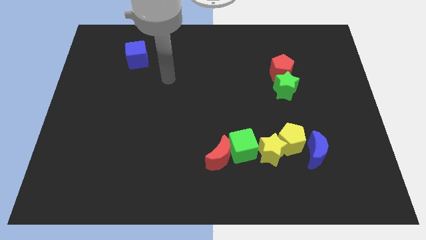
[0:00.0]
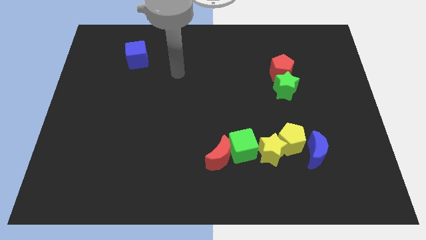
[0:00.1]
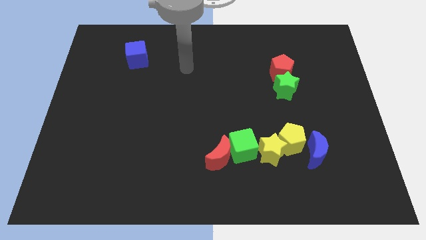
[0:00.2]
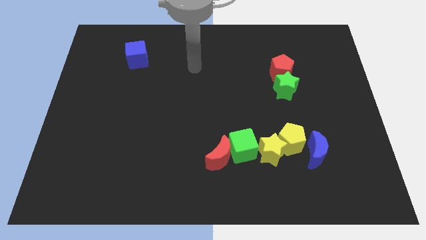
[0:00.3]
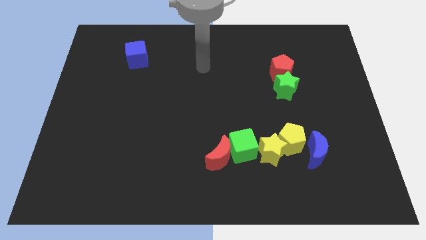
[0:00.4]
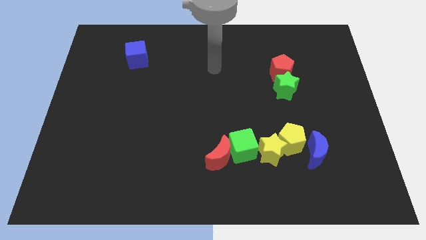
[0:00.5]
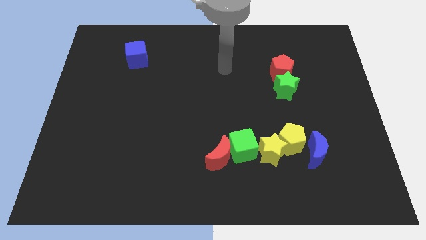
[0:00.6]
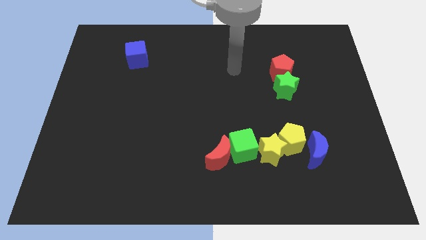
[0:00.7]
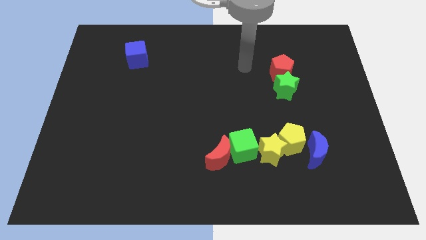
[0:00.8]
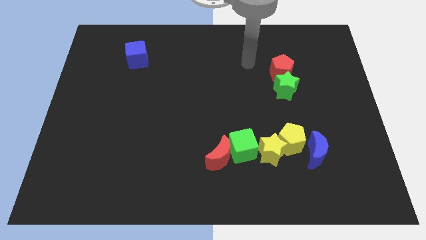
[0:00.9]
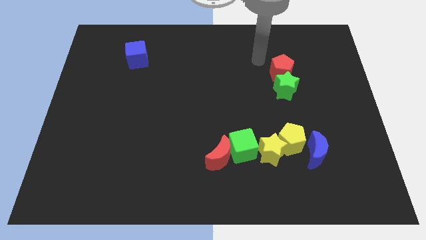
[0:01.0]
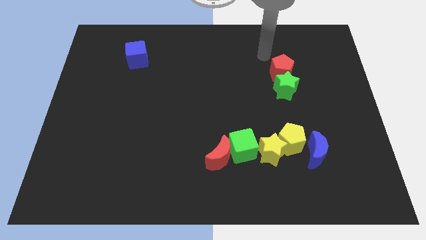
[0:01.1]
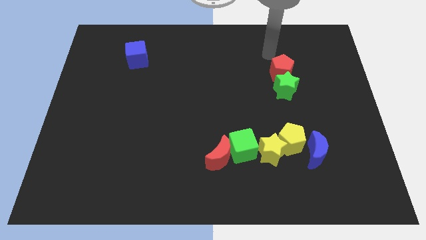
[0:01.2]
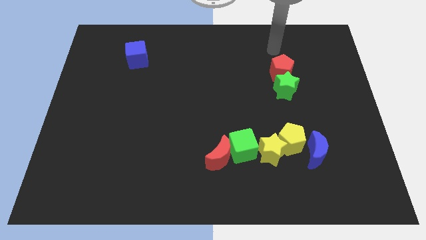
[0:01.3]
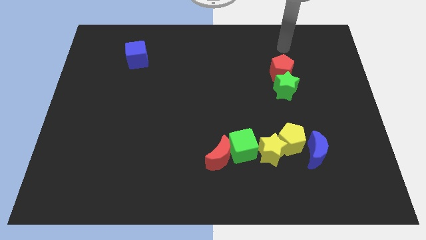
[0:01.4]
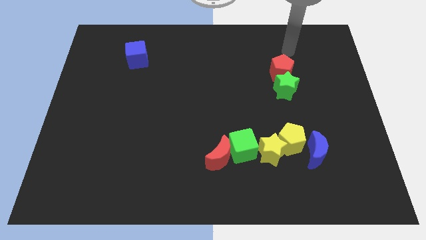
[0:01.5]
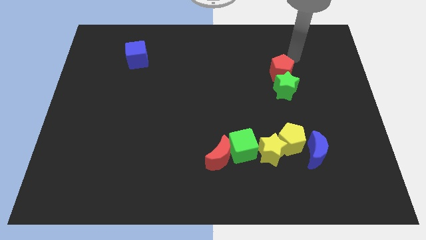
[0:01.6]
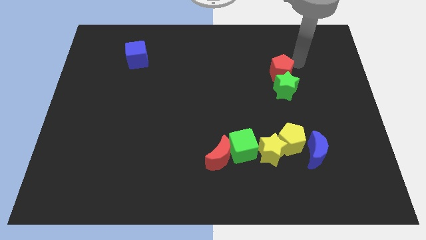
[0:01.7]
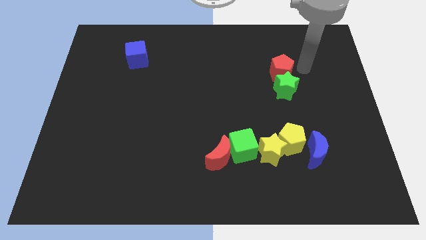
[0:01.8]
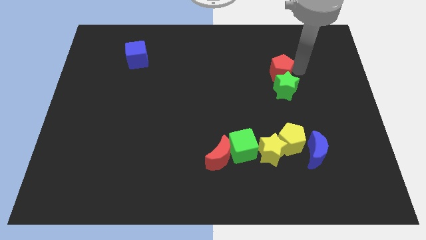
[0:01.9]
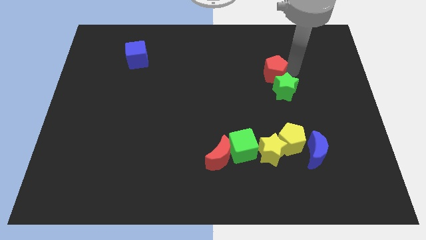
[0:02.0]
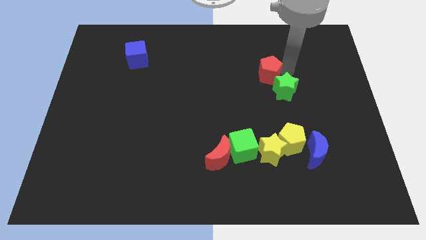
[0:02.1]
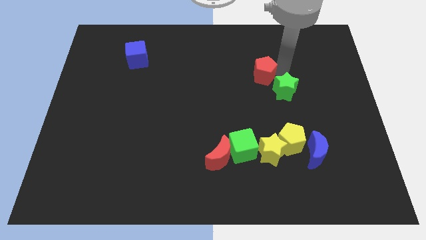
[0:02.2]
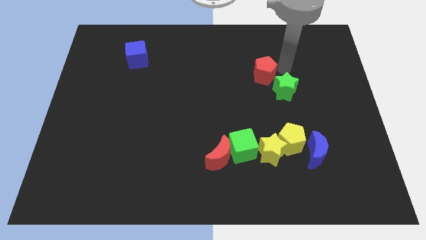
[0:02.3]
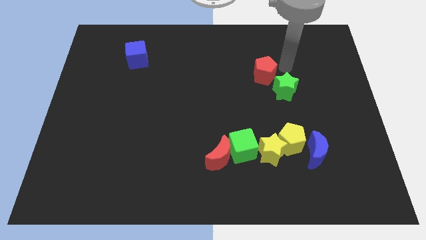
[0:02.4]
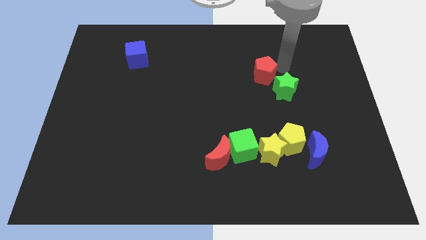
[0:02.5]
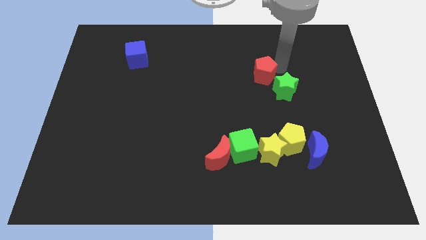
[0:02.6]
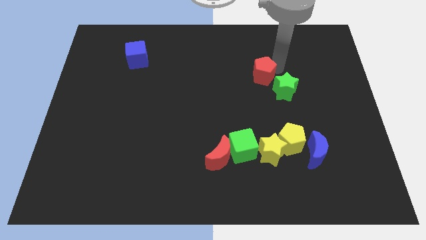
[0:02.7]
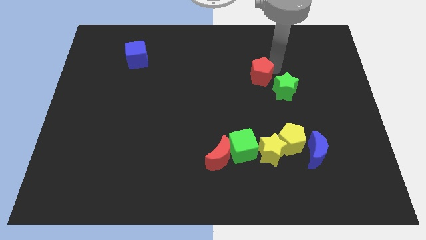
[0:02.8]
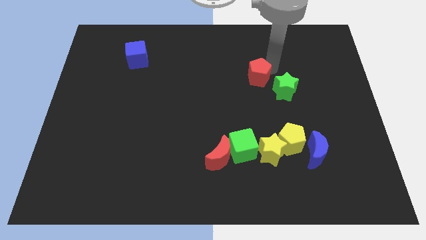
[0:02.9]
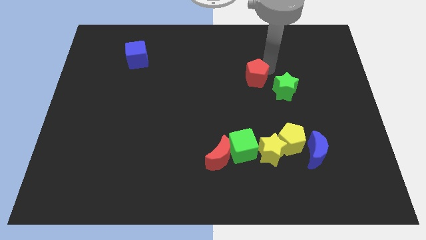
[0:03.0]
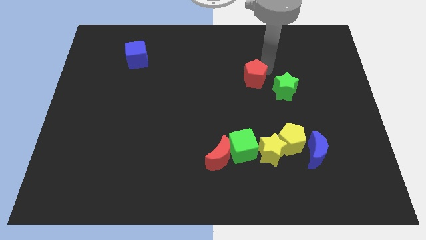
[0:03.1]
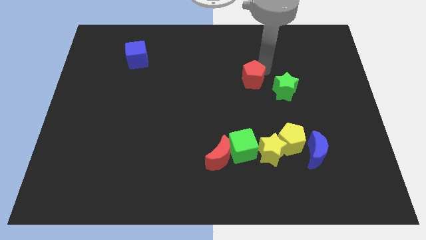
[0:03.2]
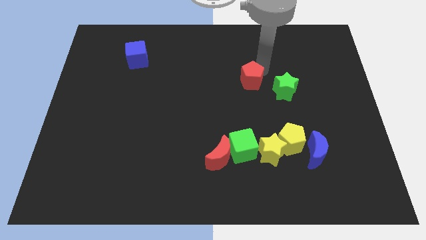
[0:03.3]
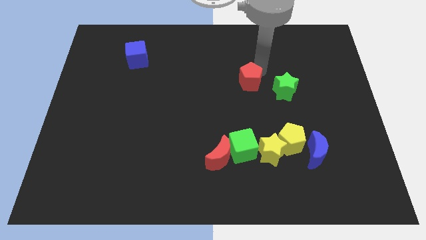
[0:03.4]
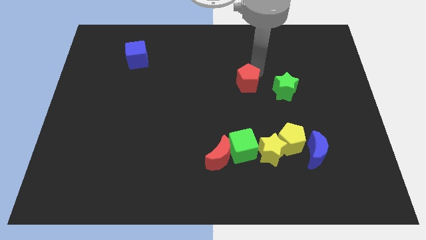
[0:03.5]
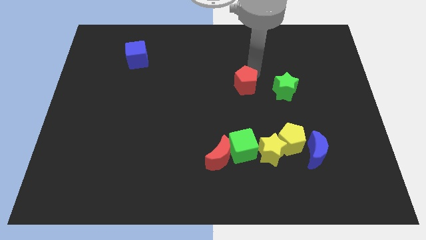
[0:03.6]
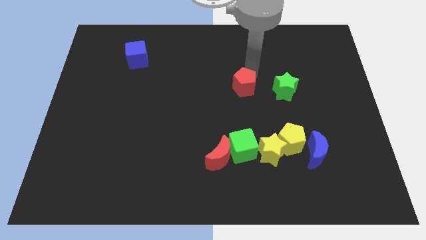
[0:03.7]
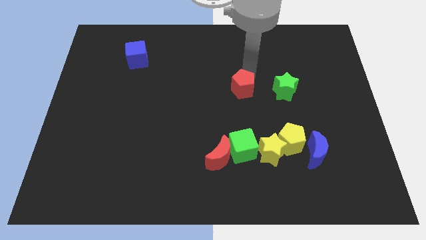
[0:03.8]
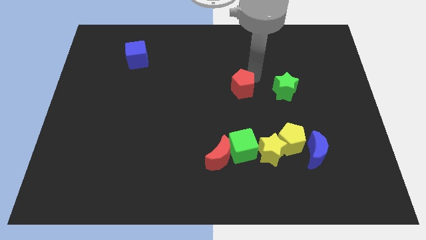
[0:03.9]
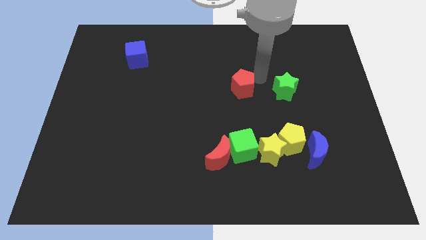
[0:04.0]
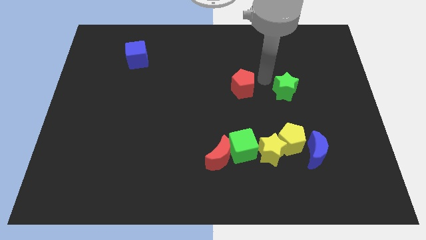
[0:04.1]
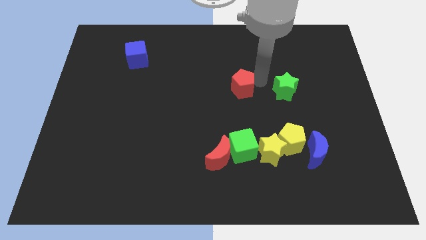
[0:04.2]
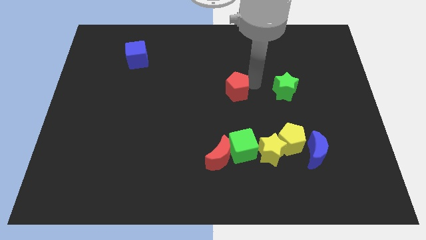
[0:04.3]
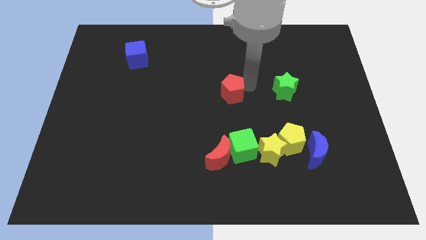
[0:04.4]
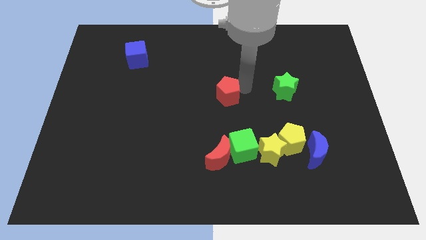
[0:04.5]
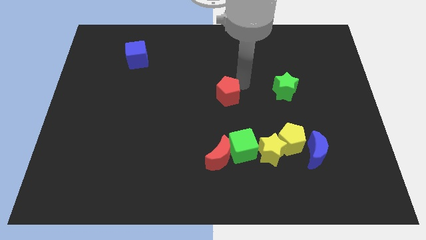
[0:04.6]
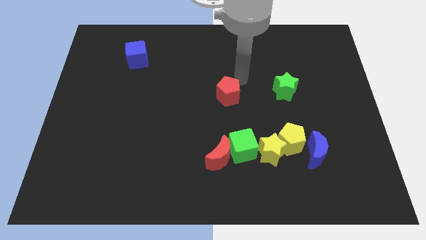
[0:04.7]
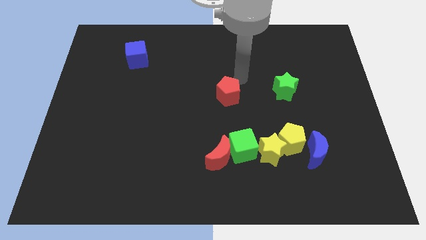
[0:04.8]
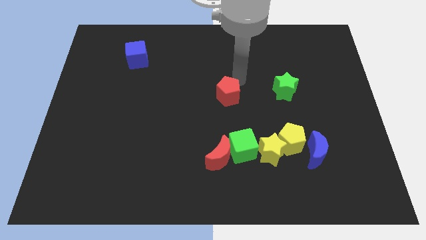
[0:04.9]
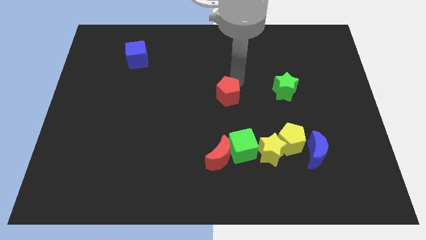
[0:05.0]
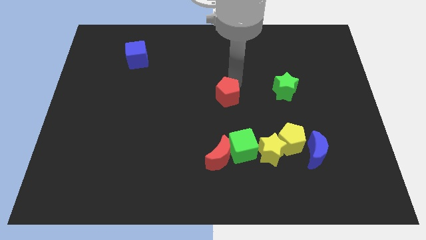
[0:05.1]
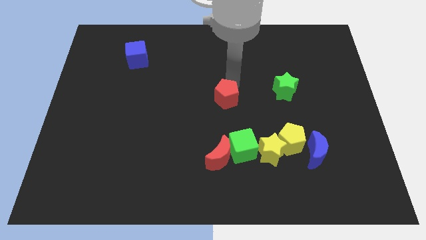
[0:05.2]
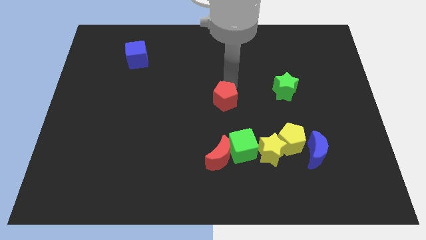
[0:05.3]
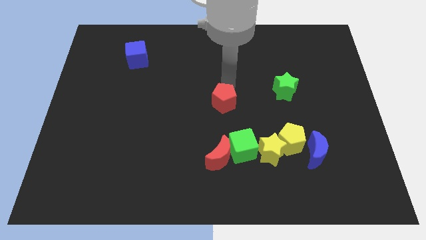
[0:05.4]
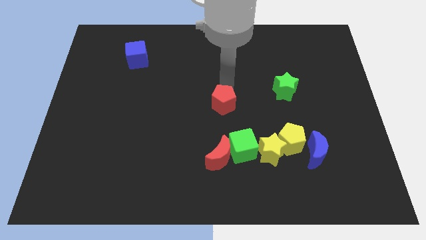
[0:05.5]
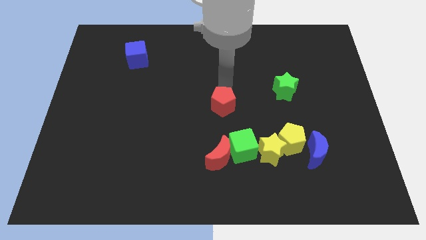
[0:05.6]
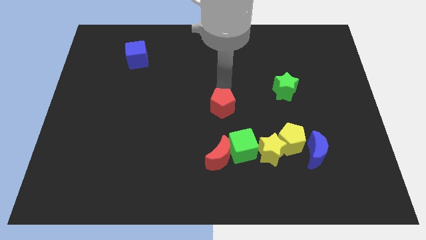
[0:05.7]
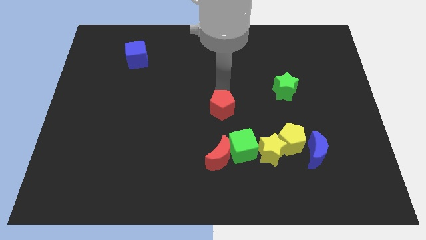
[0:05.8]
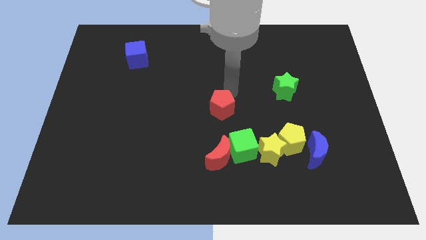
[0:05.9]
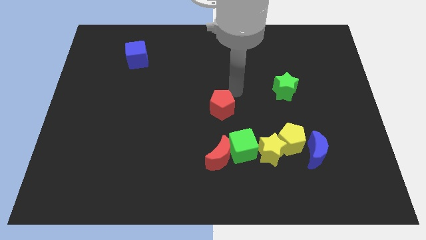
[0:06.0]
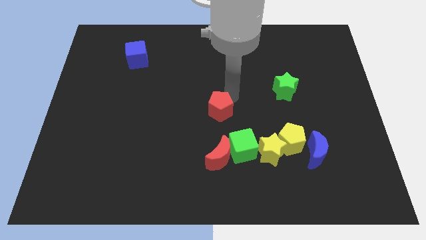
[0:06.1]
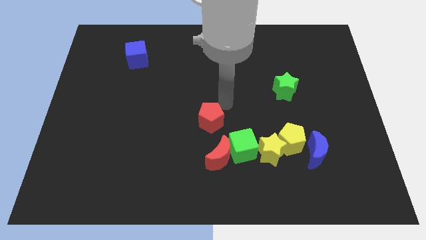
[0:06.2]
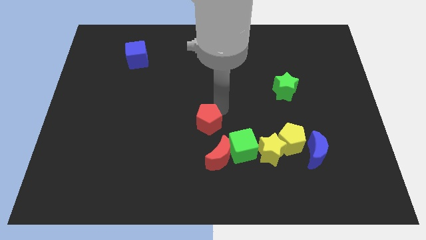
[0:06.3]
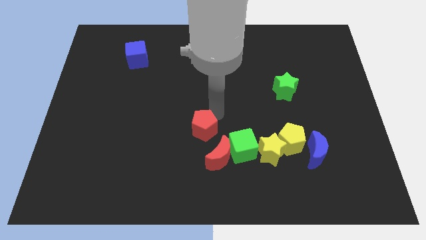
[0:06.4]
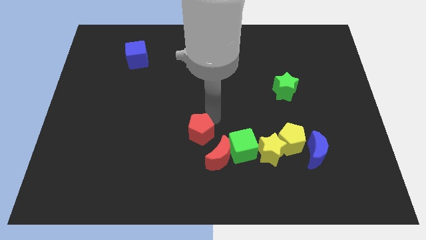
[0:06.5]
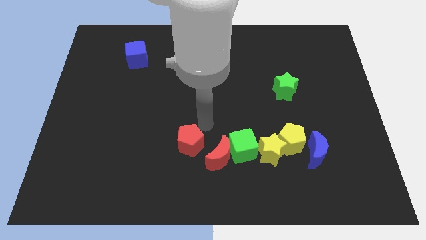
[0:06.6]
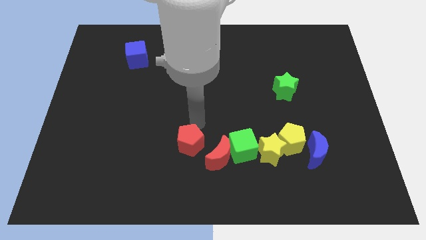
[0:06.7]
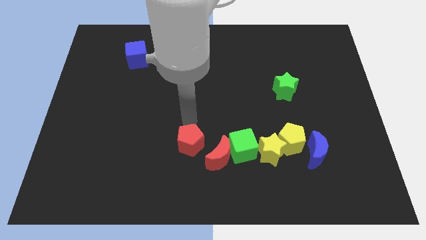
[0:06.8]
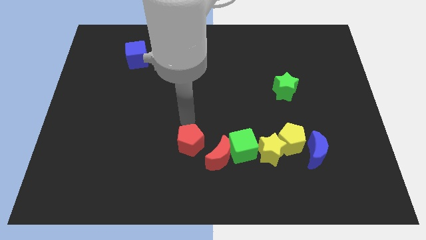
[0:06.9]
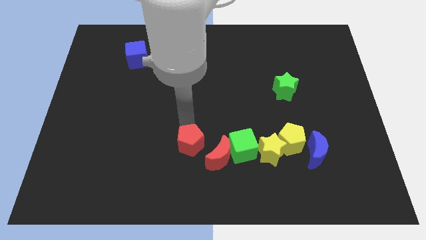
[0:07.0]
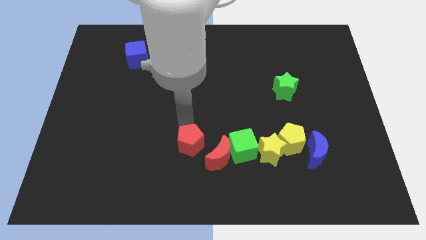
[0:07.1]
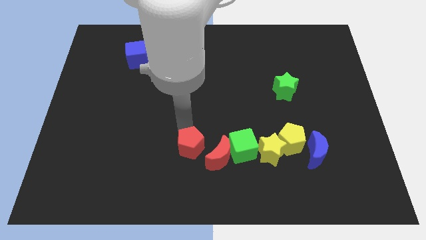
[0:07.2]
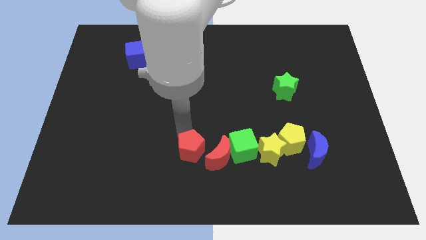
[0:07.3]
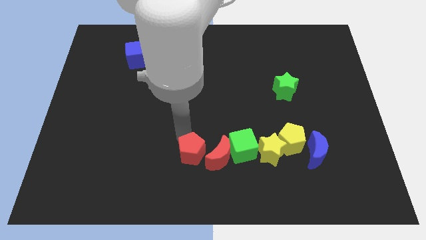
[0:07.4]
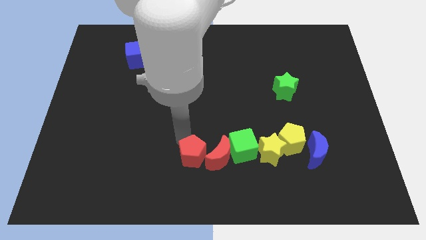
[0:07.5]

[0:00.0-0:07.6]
push the red pentagon diagonally down and to the left of the red moon
